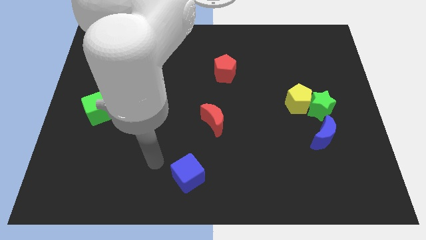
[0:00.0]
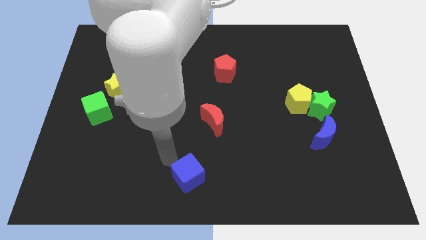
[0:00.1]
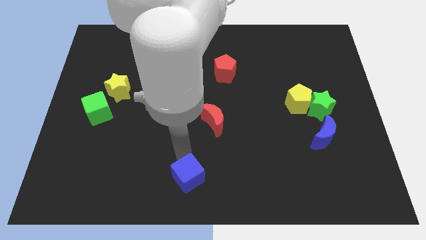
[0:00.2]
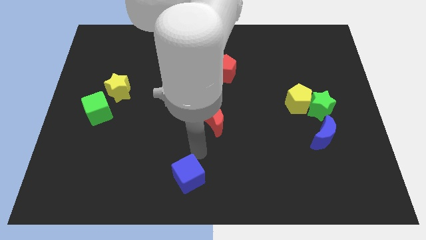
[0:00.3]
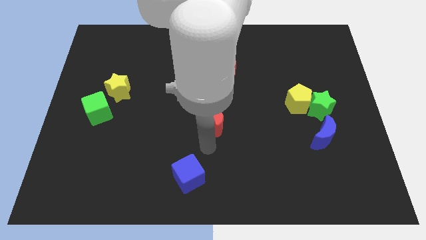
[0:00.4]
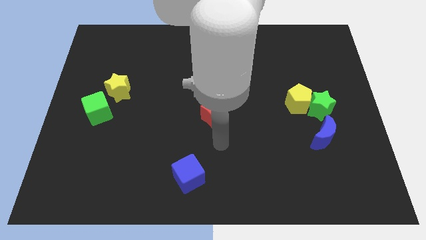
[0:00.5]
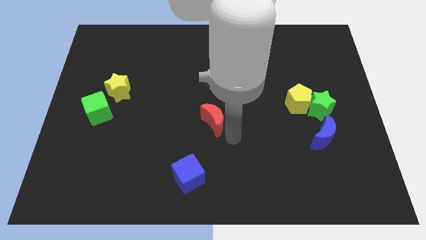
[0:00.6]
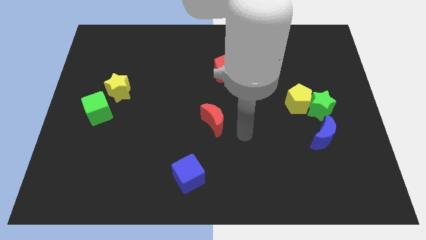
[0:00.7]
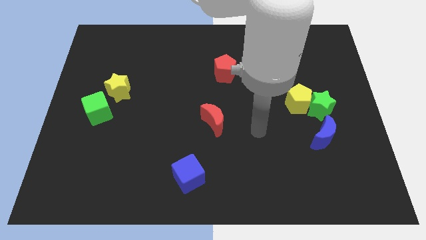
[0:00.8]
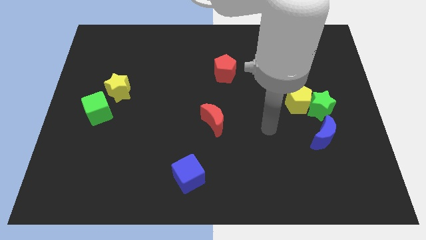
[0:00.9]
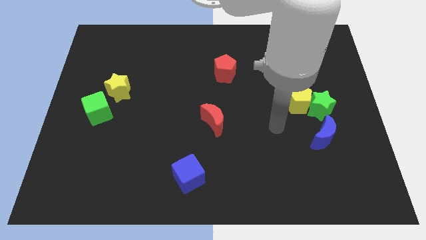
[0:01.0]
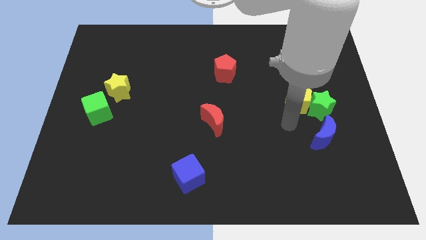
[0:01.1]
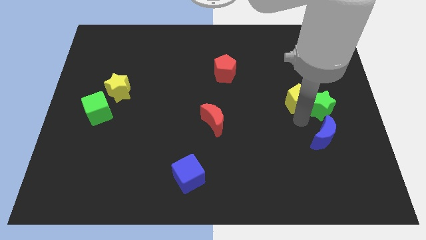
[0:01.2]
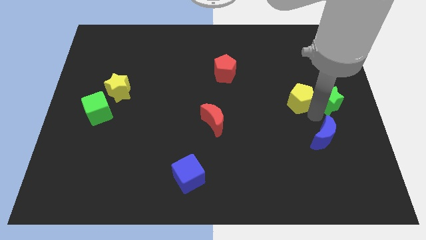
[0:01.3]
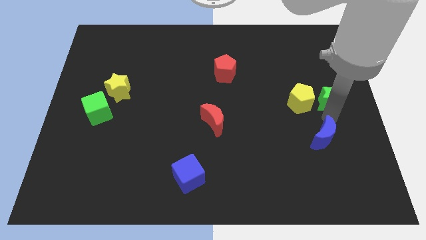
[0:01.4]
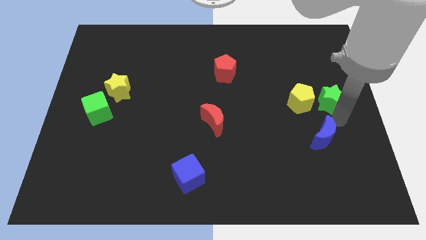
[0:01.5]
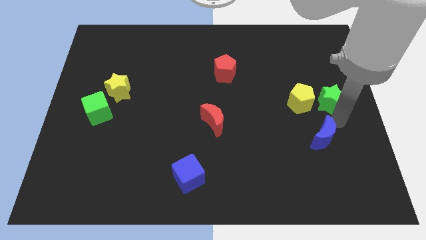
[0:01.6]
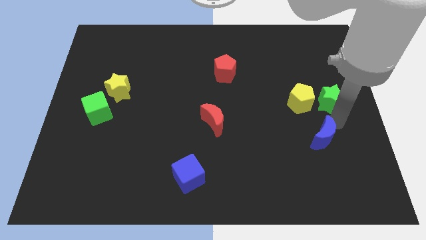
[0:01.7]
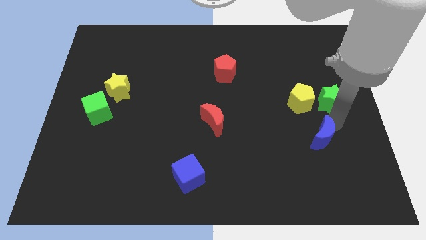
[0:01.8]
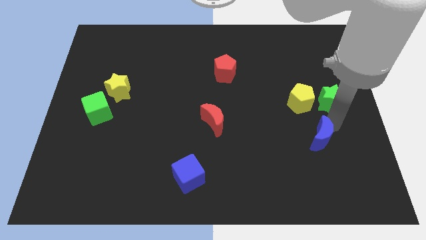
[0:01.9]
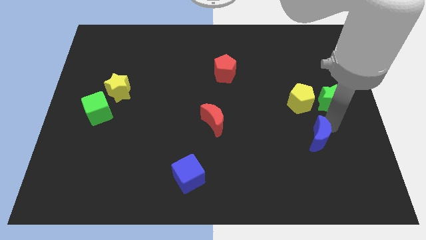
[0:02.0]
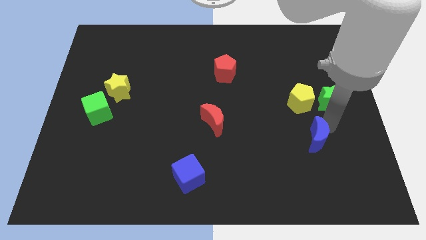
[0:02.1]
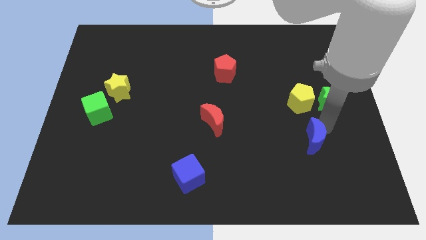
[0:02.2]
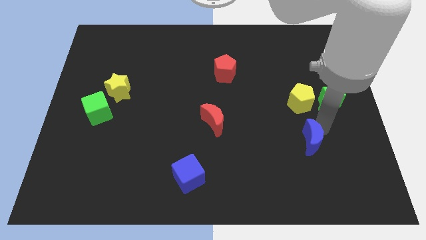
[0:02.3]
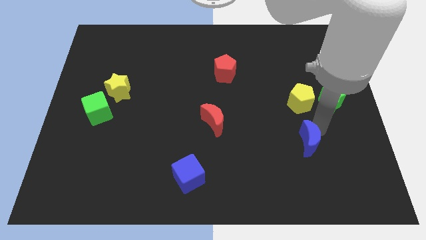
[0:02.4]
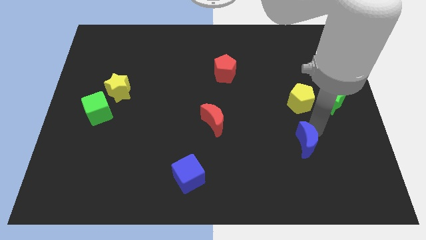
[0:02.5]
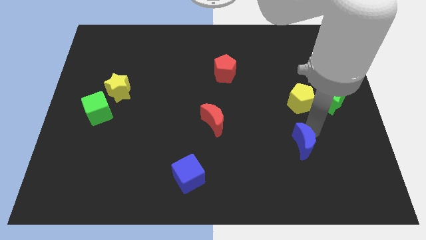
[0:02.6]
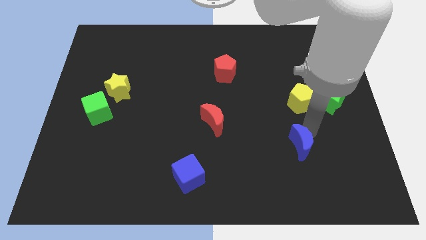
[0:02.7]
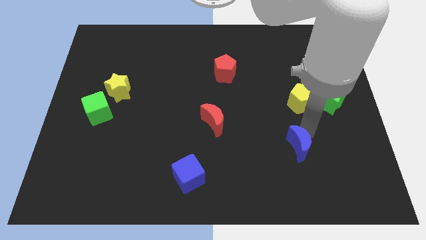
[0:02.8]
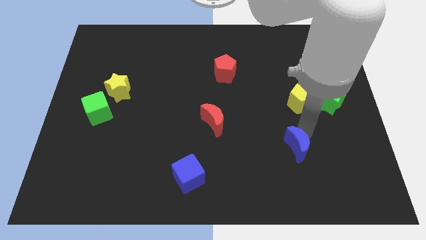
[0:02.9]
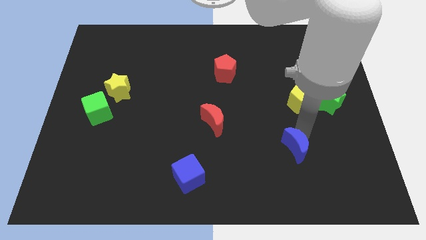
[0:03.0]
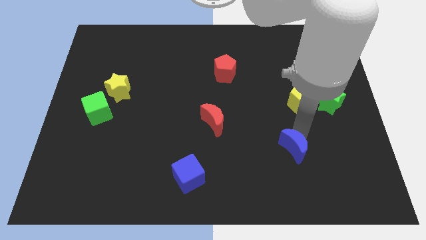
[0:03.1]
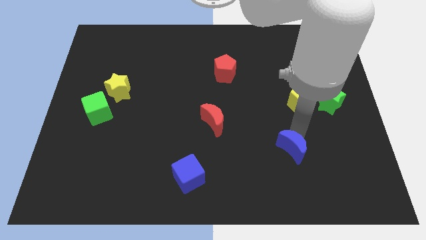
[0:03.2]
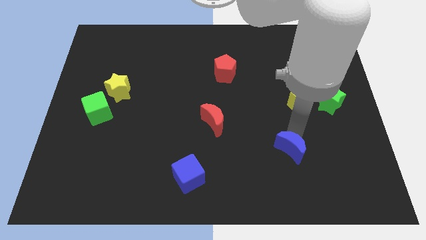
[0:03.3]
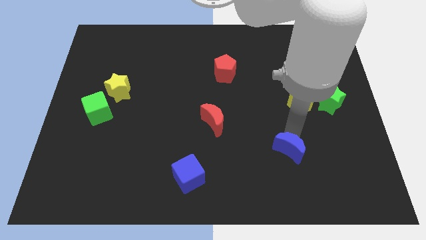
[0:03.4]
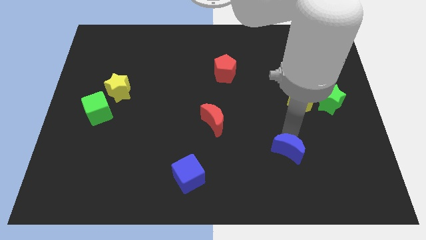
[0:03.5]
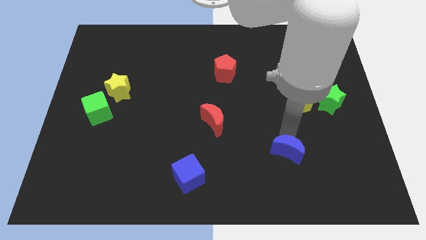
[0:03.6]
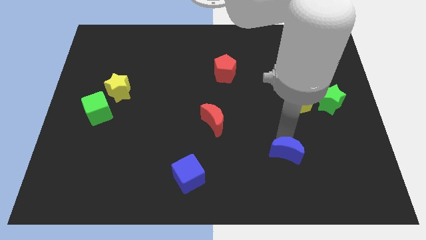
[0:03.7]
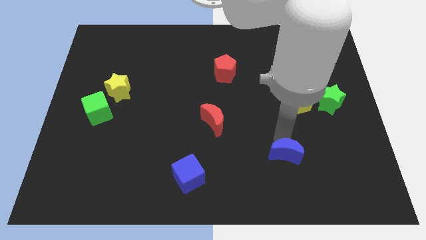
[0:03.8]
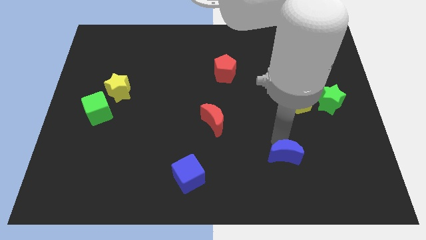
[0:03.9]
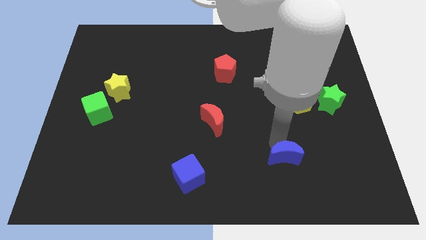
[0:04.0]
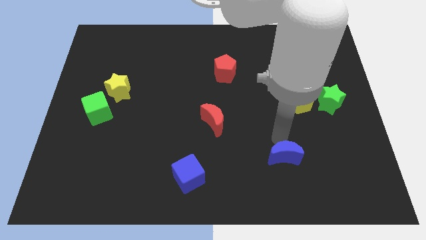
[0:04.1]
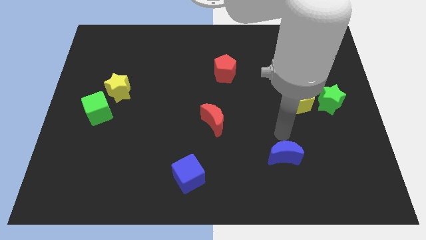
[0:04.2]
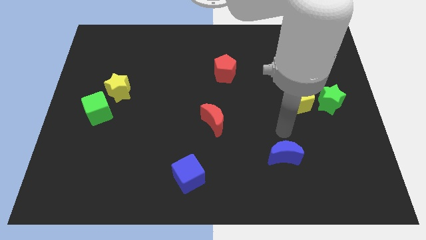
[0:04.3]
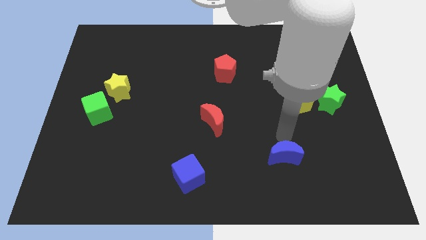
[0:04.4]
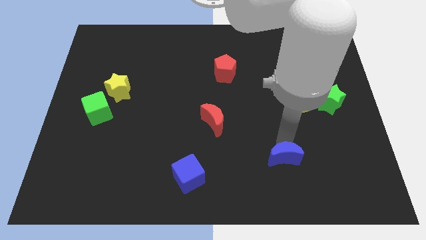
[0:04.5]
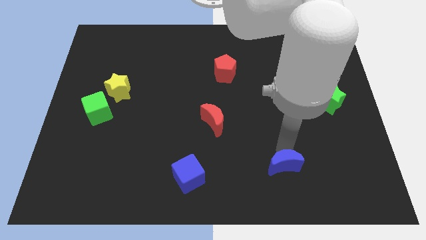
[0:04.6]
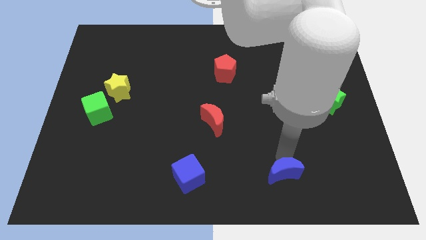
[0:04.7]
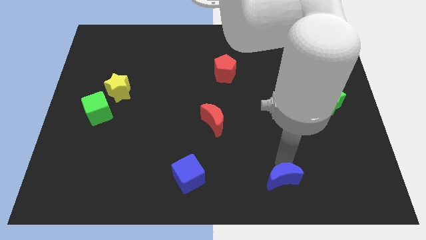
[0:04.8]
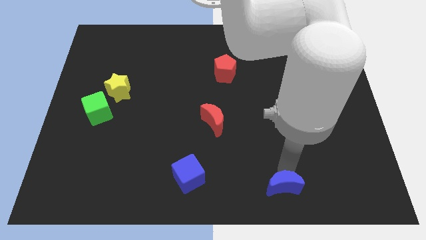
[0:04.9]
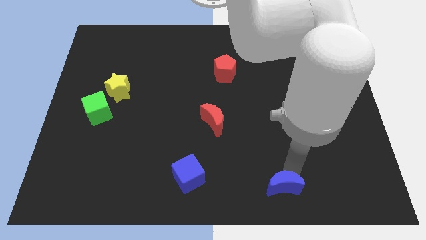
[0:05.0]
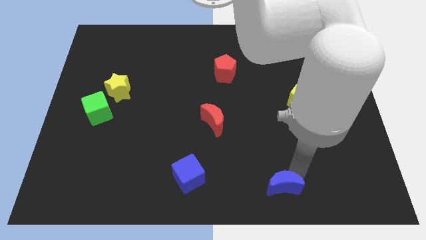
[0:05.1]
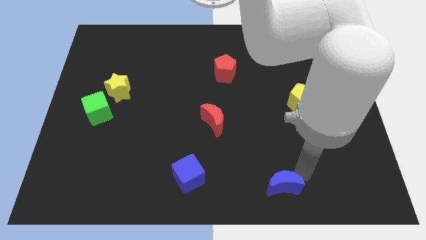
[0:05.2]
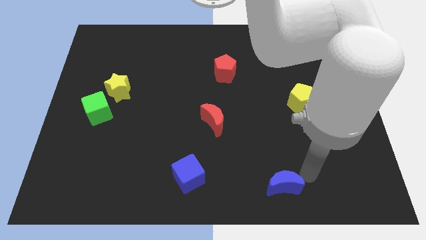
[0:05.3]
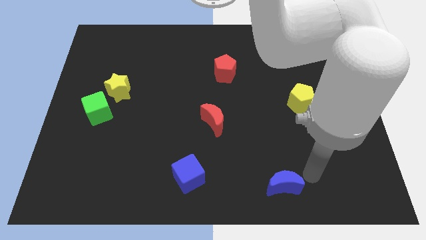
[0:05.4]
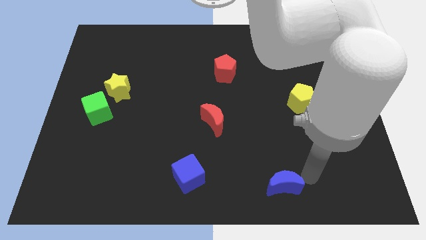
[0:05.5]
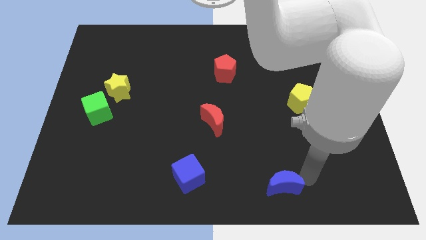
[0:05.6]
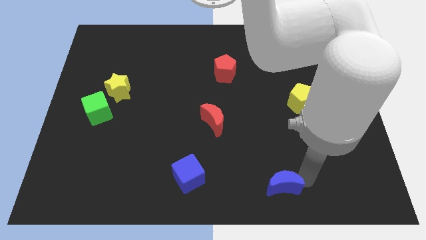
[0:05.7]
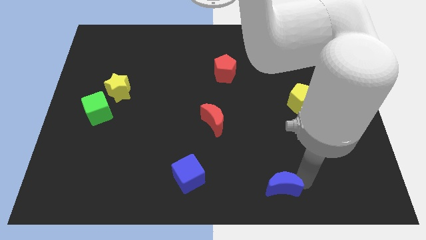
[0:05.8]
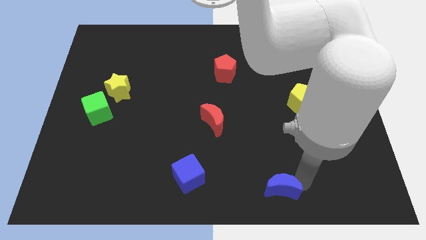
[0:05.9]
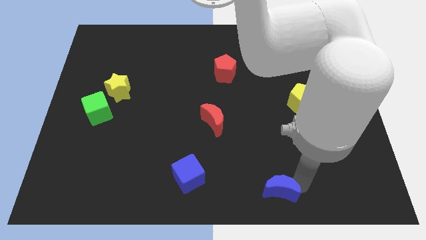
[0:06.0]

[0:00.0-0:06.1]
push the blue moon to the bottom side
